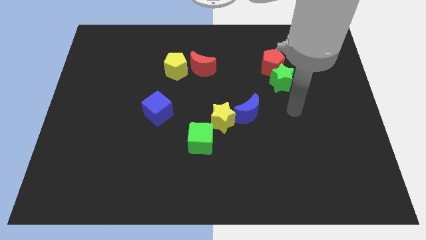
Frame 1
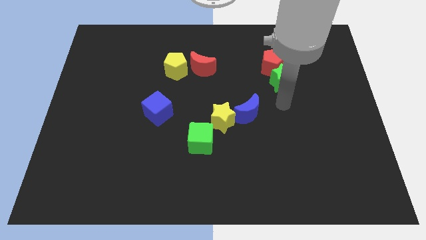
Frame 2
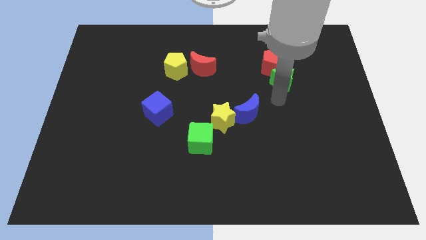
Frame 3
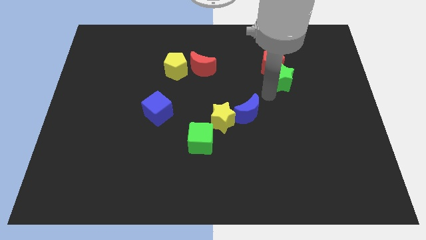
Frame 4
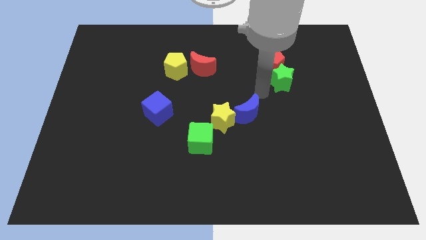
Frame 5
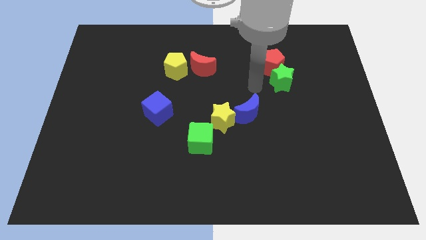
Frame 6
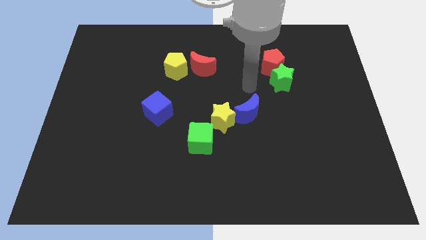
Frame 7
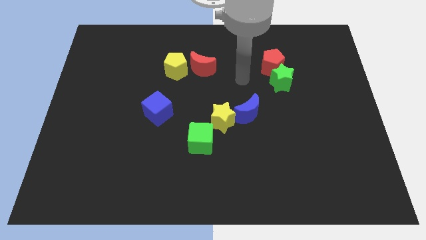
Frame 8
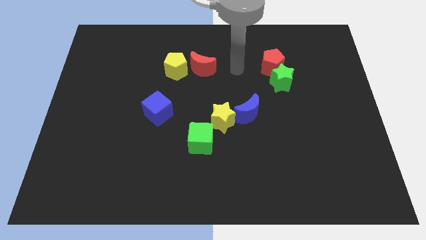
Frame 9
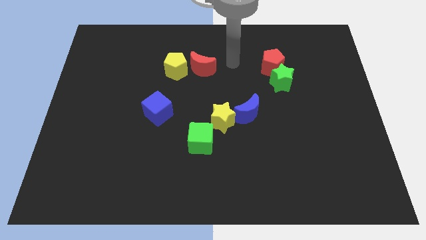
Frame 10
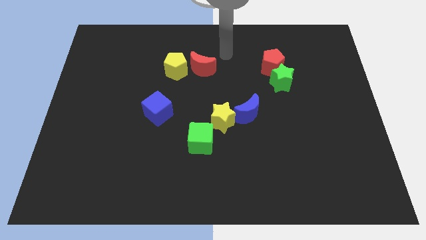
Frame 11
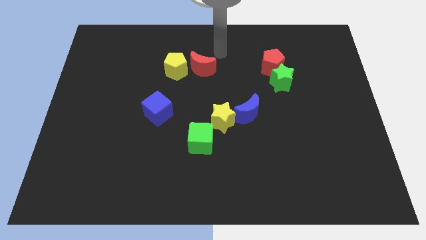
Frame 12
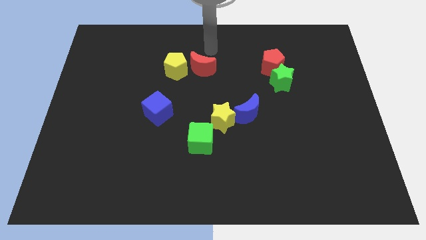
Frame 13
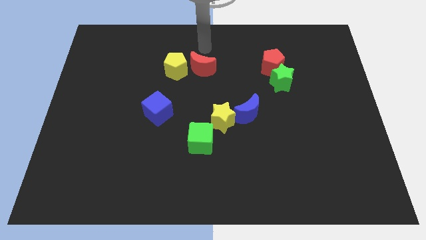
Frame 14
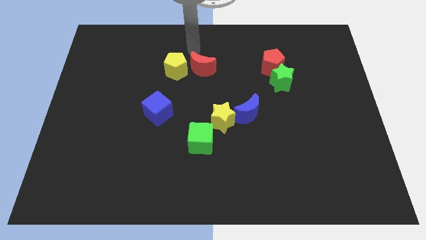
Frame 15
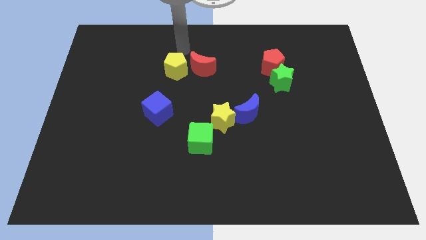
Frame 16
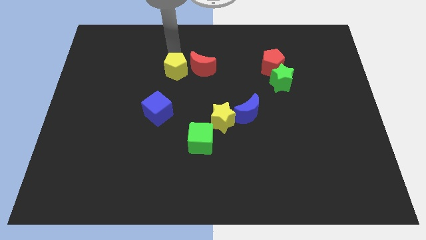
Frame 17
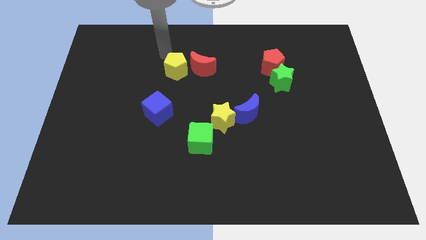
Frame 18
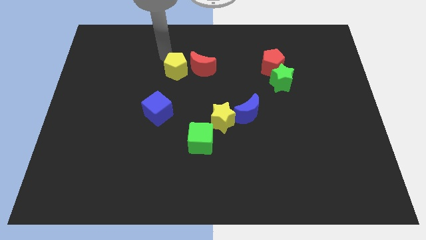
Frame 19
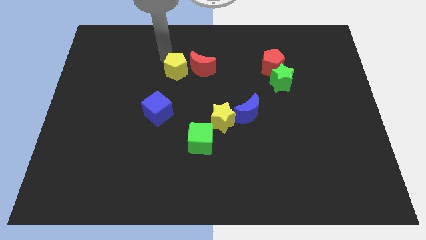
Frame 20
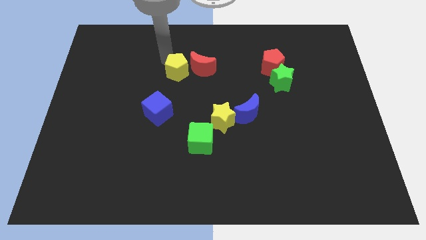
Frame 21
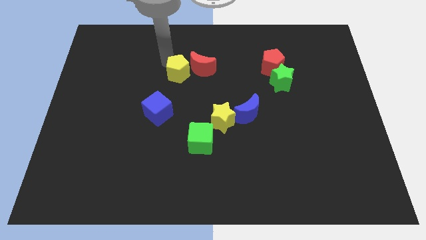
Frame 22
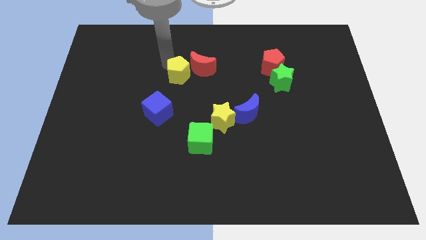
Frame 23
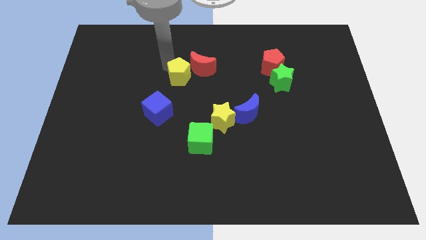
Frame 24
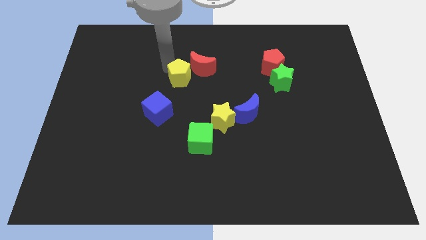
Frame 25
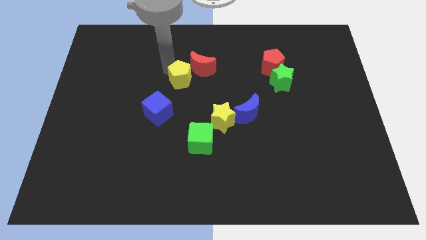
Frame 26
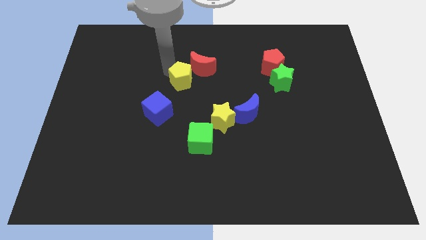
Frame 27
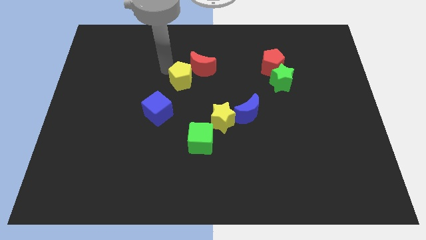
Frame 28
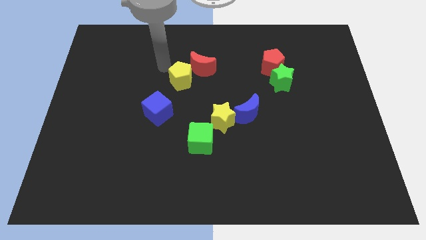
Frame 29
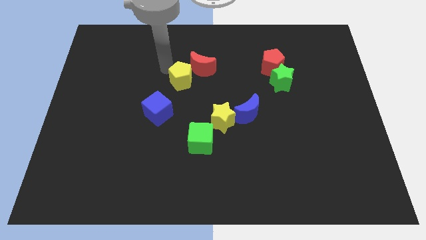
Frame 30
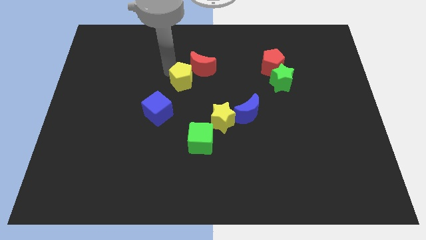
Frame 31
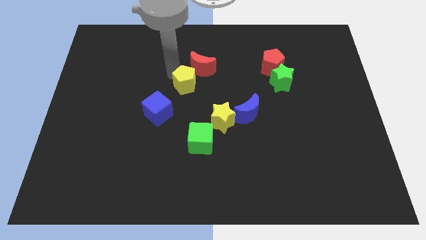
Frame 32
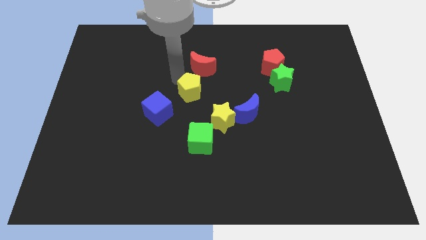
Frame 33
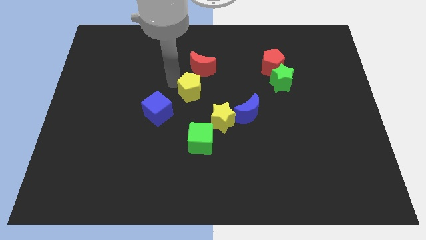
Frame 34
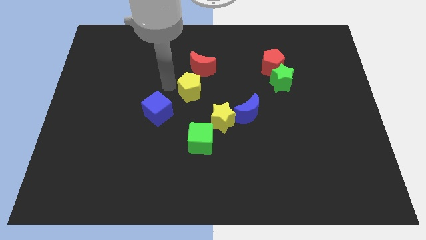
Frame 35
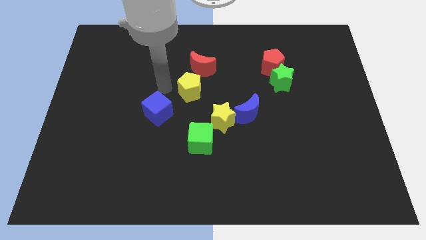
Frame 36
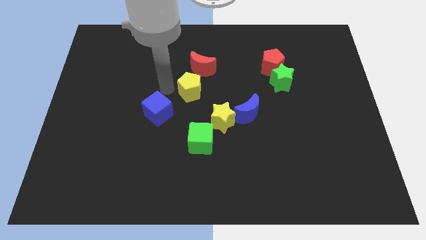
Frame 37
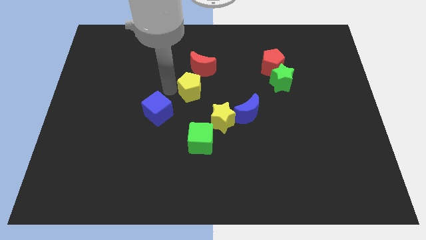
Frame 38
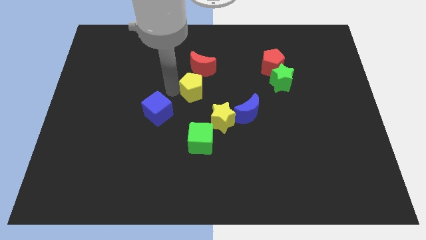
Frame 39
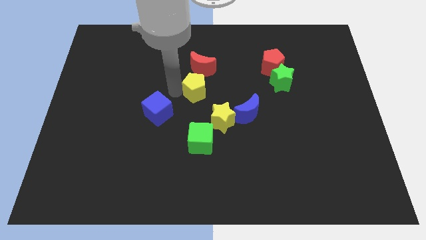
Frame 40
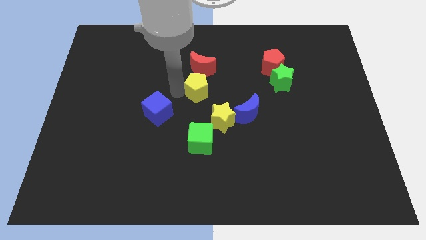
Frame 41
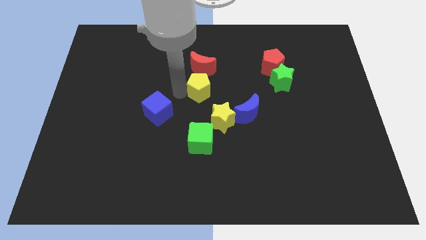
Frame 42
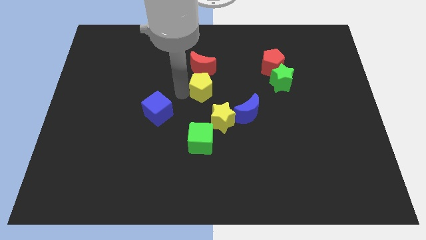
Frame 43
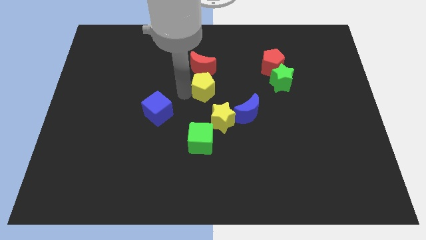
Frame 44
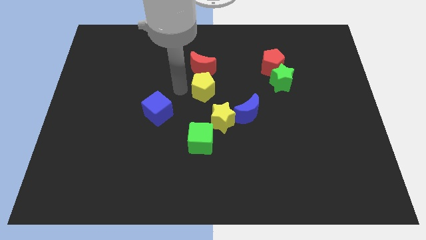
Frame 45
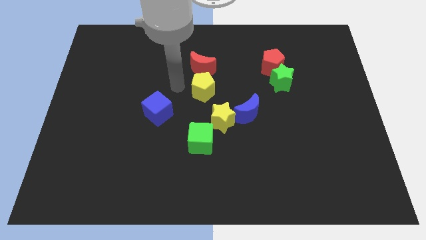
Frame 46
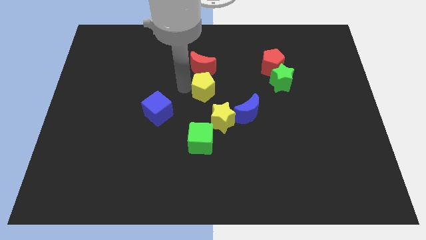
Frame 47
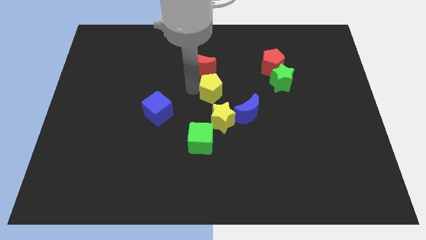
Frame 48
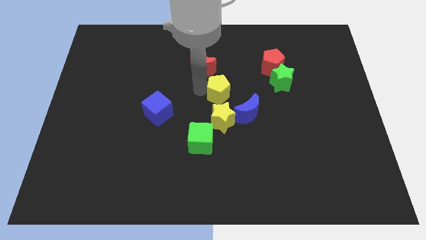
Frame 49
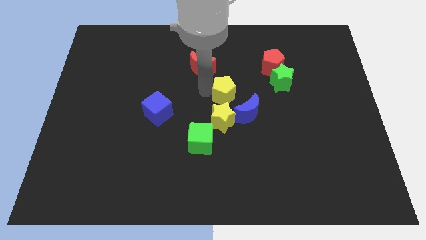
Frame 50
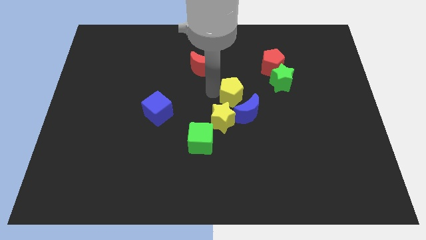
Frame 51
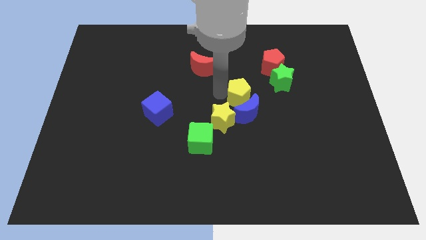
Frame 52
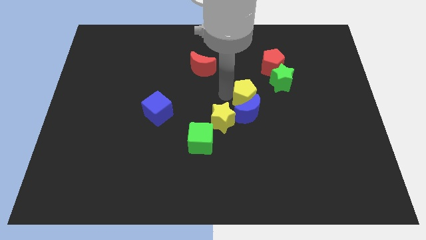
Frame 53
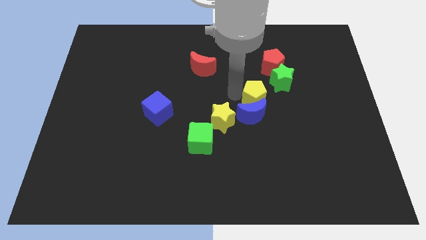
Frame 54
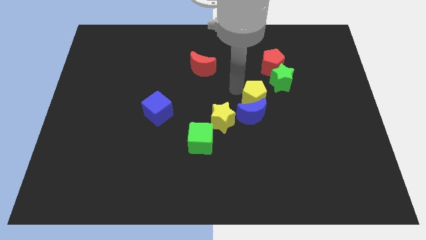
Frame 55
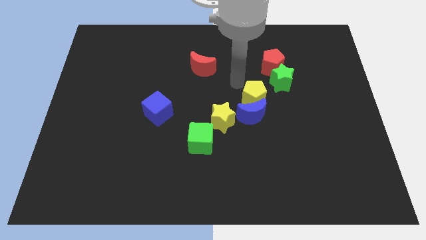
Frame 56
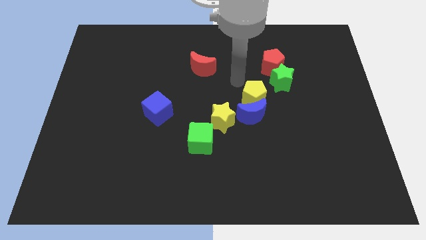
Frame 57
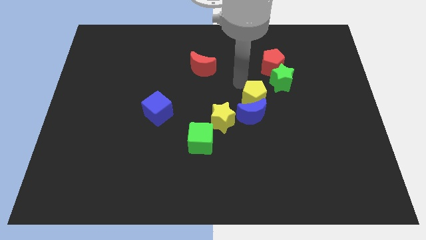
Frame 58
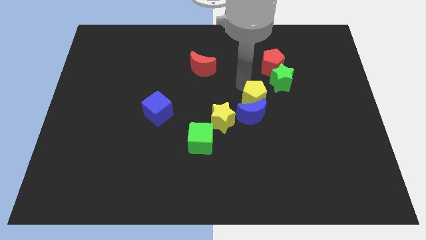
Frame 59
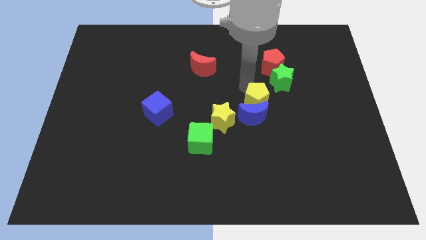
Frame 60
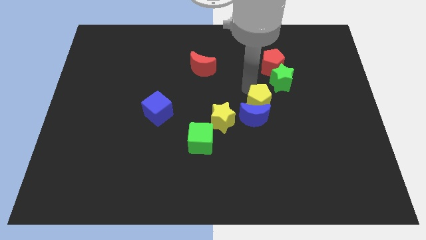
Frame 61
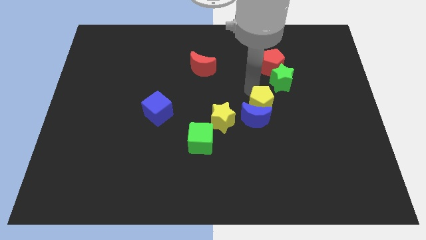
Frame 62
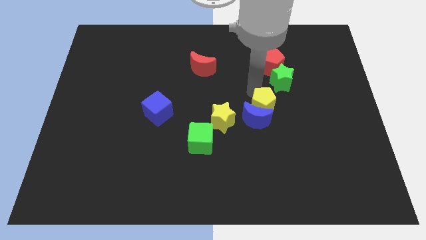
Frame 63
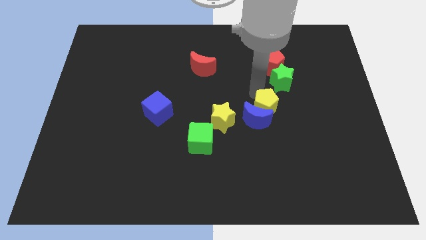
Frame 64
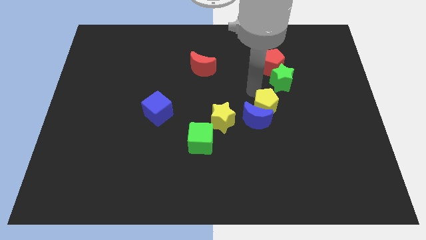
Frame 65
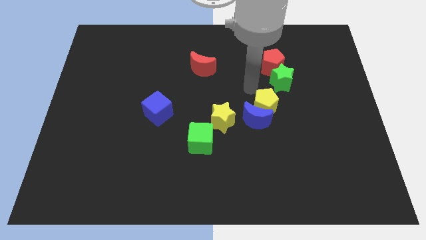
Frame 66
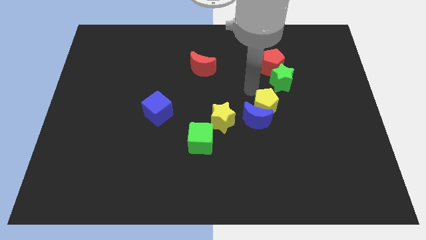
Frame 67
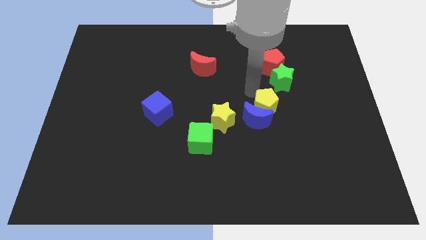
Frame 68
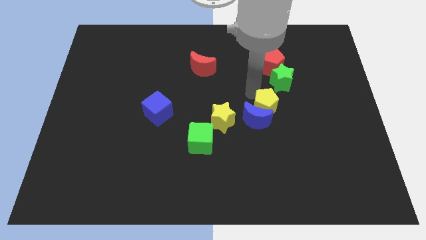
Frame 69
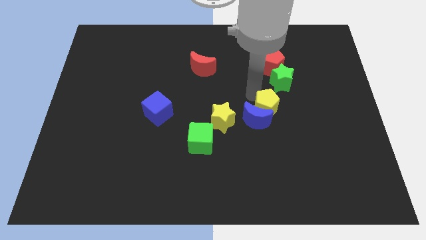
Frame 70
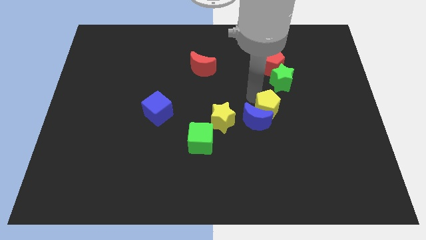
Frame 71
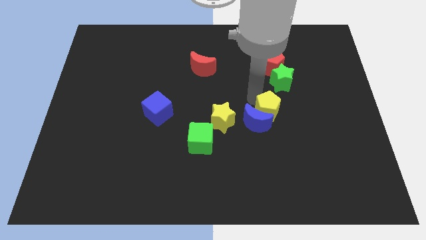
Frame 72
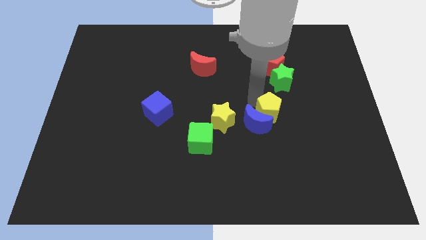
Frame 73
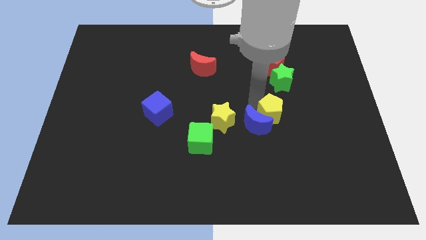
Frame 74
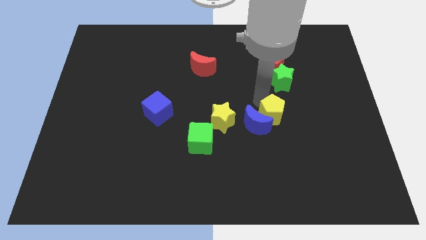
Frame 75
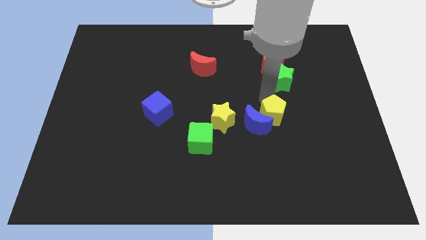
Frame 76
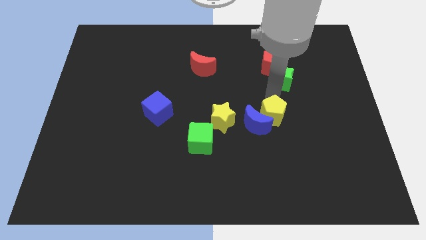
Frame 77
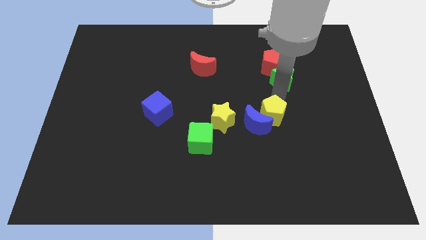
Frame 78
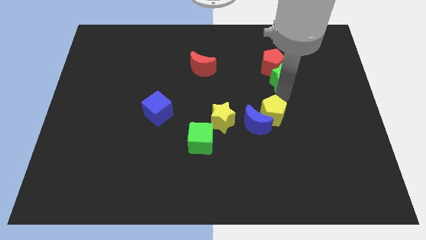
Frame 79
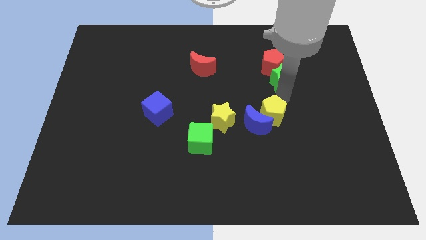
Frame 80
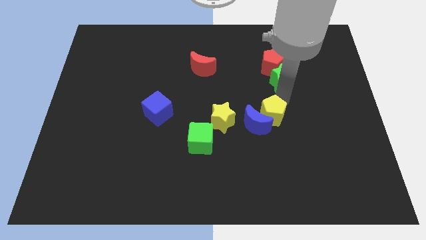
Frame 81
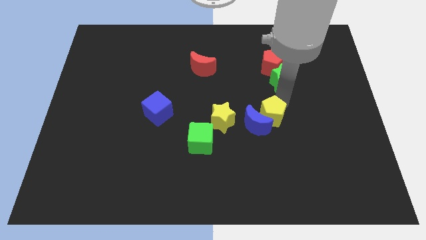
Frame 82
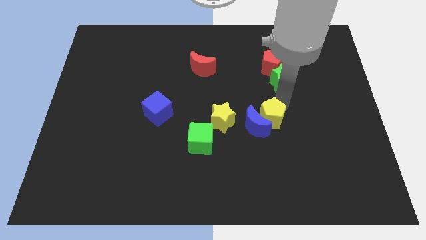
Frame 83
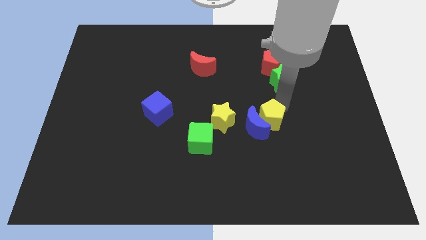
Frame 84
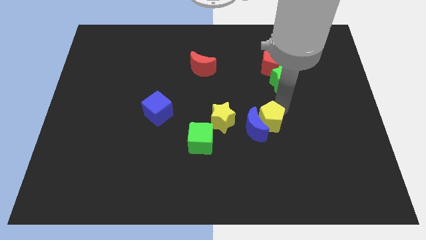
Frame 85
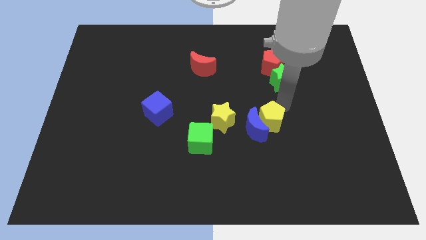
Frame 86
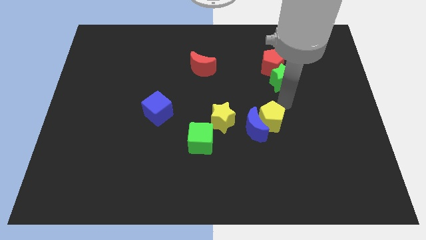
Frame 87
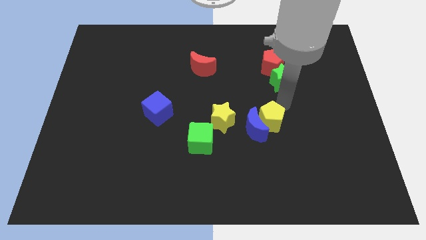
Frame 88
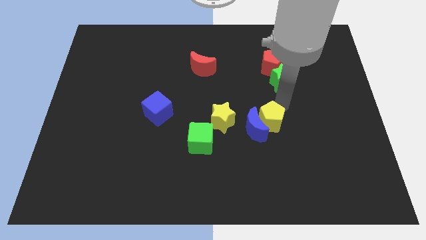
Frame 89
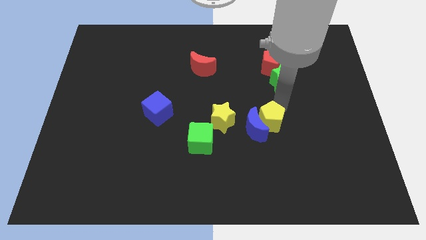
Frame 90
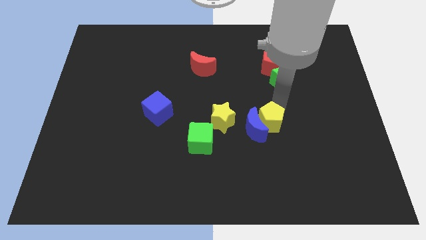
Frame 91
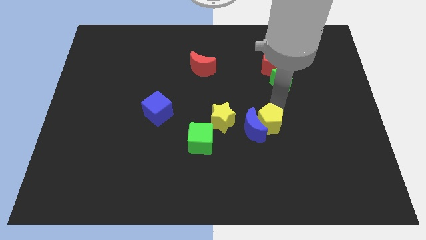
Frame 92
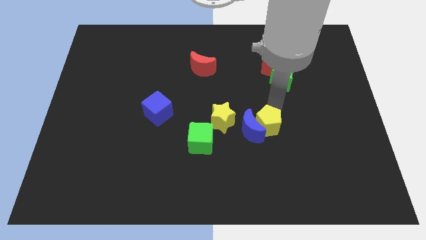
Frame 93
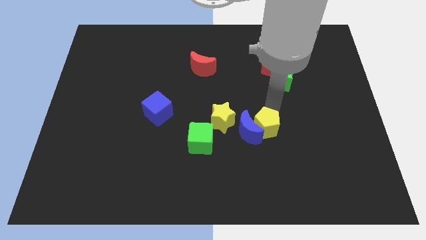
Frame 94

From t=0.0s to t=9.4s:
push the yellow pentagon to the right side of the green cube
